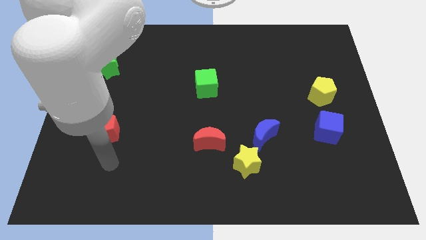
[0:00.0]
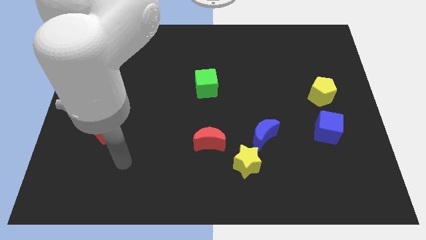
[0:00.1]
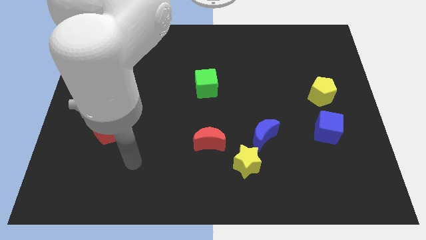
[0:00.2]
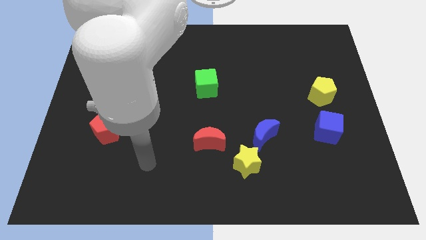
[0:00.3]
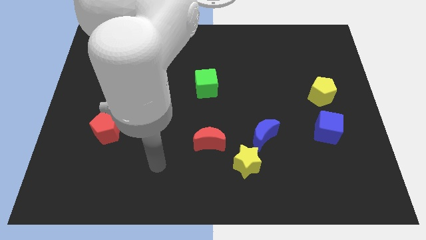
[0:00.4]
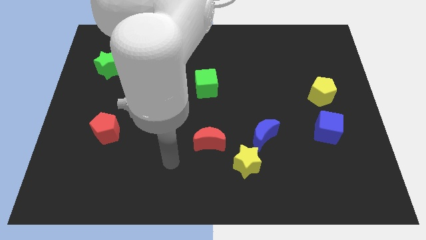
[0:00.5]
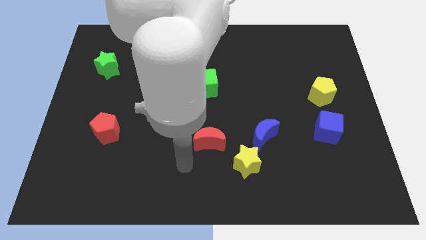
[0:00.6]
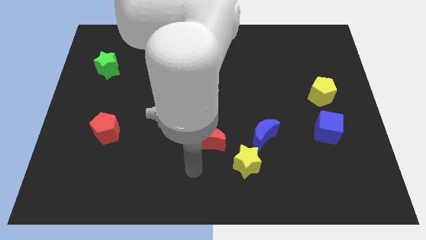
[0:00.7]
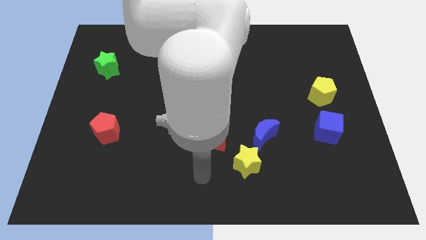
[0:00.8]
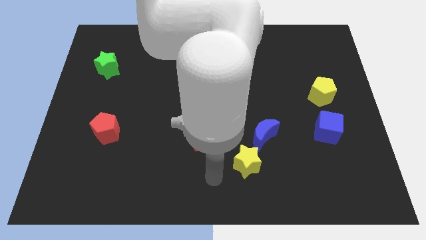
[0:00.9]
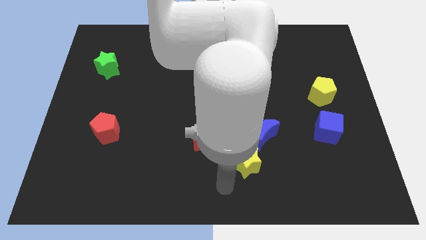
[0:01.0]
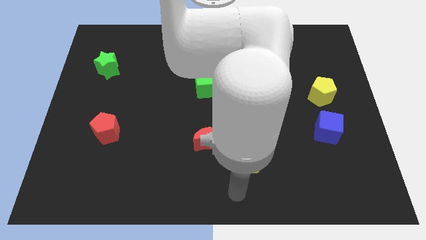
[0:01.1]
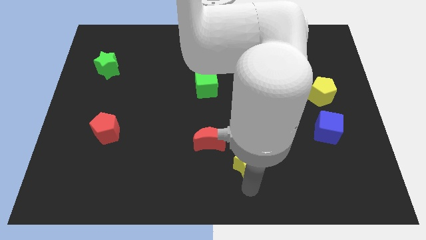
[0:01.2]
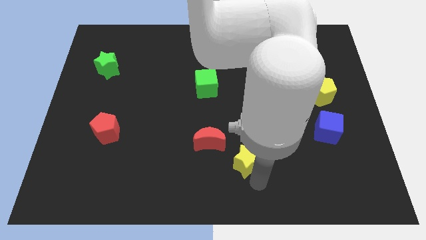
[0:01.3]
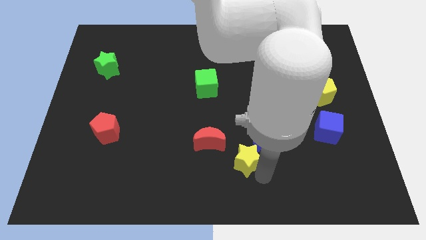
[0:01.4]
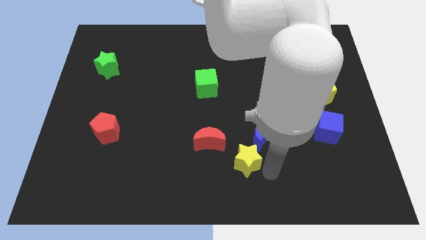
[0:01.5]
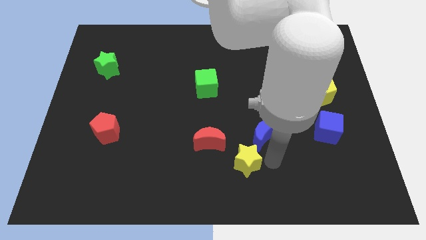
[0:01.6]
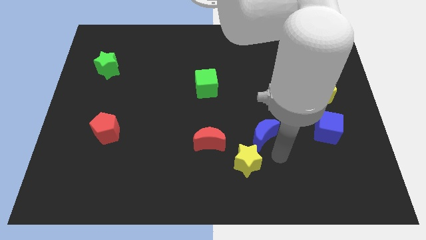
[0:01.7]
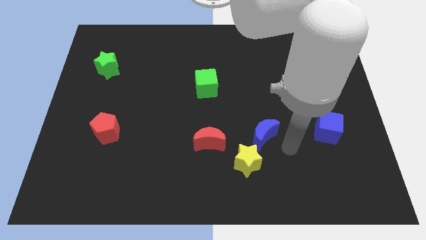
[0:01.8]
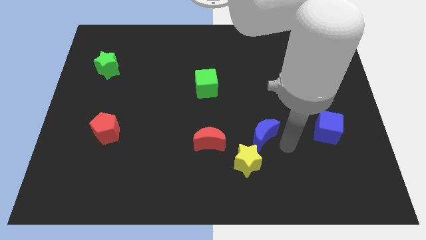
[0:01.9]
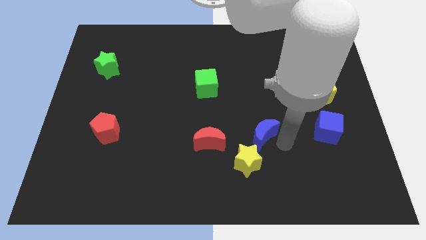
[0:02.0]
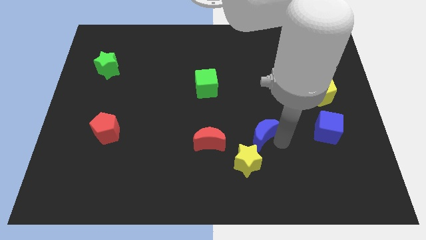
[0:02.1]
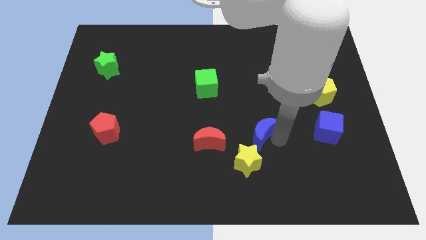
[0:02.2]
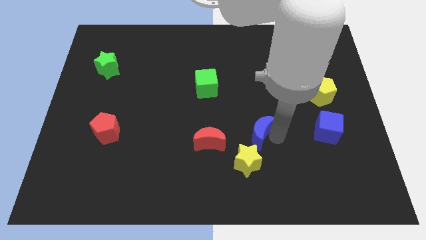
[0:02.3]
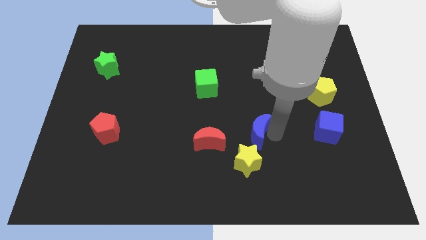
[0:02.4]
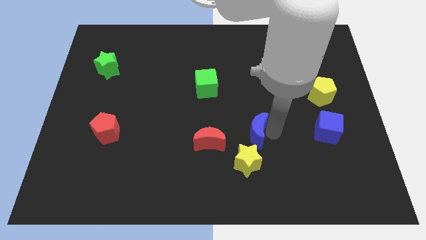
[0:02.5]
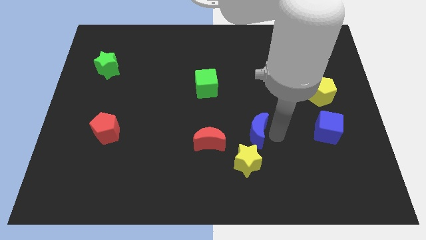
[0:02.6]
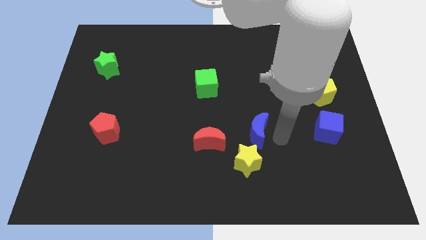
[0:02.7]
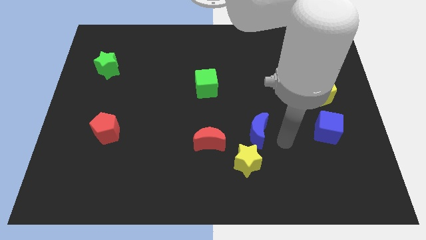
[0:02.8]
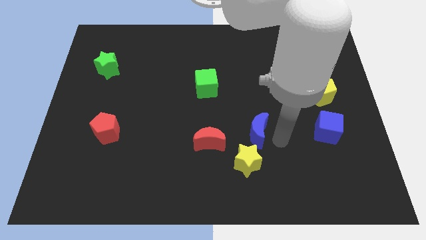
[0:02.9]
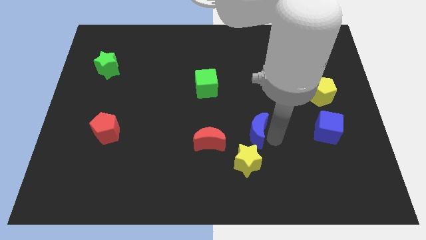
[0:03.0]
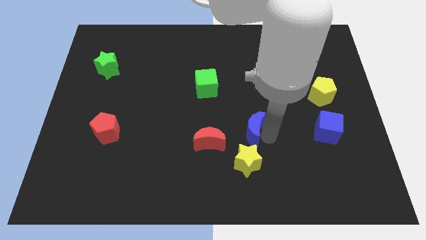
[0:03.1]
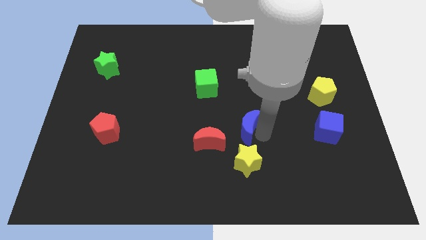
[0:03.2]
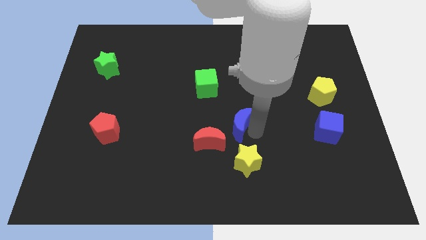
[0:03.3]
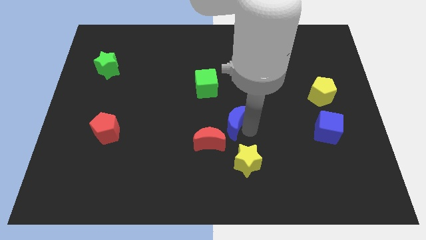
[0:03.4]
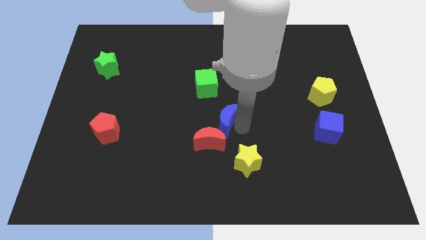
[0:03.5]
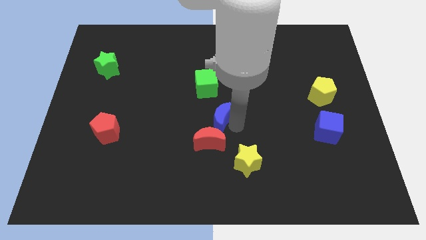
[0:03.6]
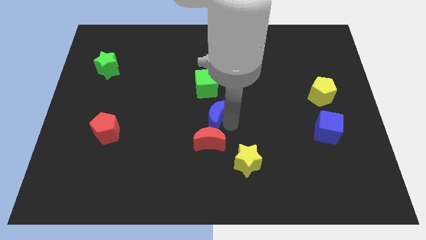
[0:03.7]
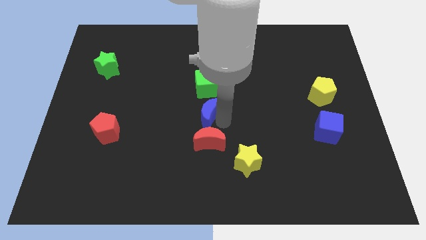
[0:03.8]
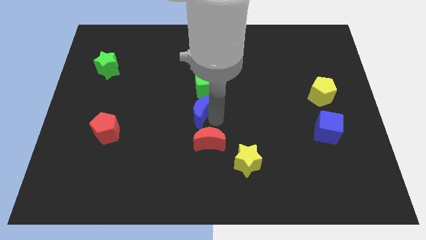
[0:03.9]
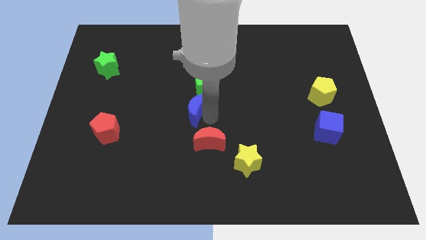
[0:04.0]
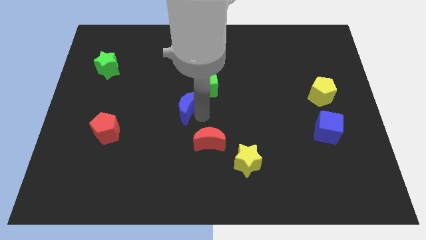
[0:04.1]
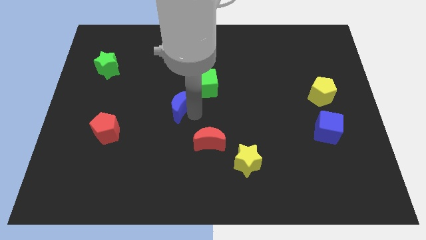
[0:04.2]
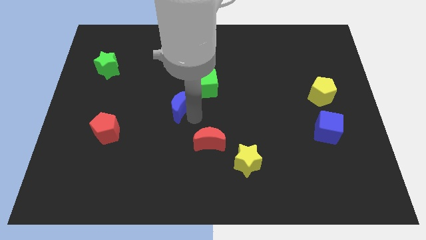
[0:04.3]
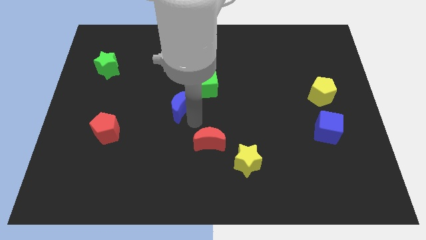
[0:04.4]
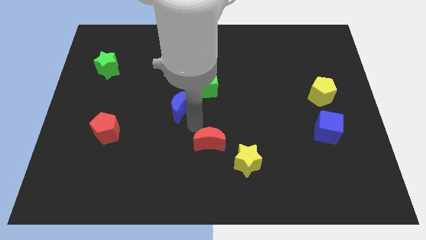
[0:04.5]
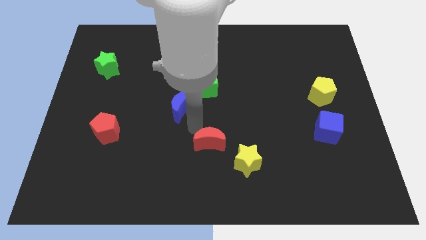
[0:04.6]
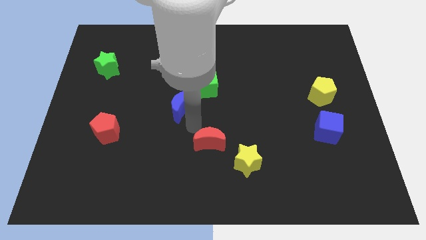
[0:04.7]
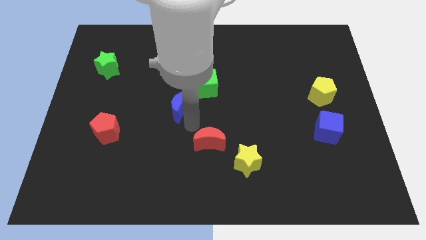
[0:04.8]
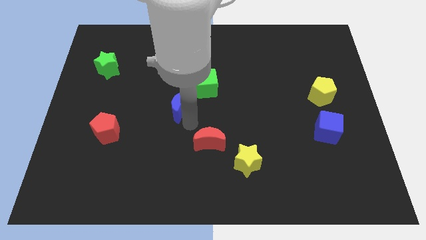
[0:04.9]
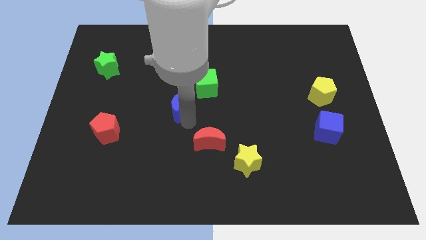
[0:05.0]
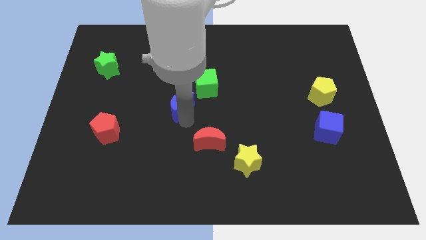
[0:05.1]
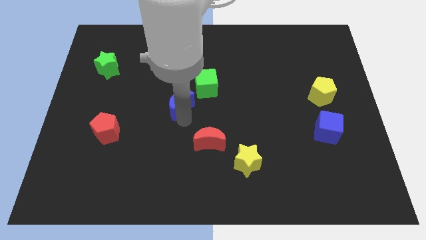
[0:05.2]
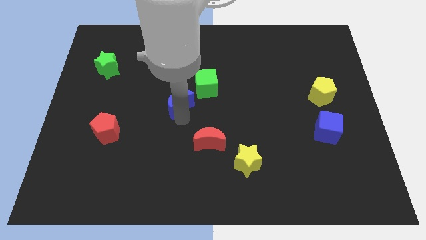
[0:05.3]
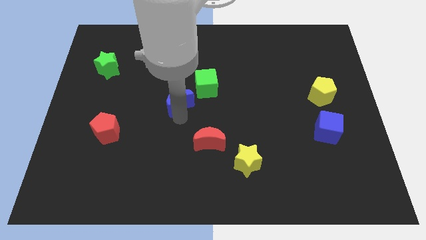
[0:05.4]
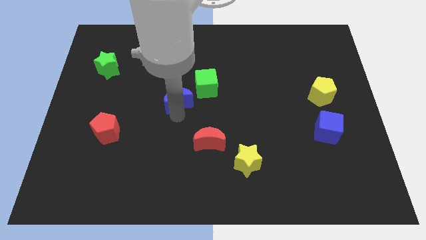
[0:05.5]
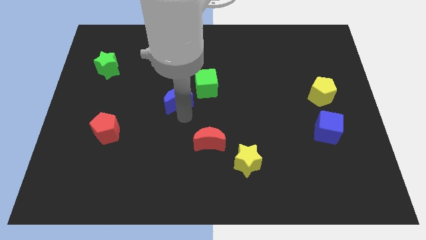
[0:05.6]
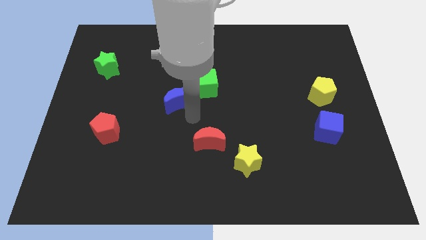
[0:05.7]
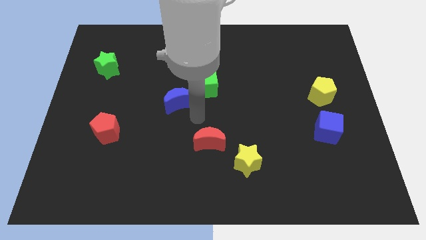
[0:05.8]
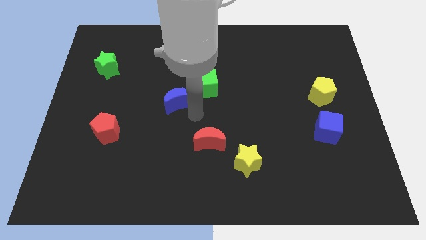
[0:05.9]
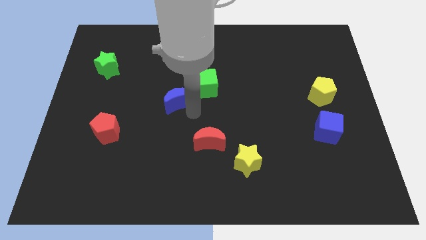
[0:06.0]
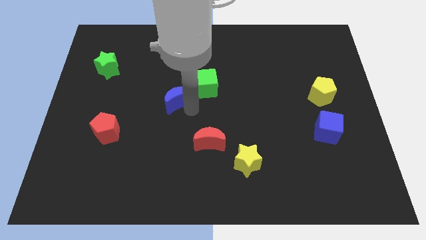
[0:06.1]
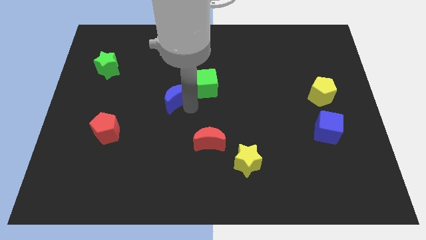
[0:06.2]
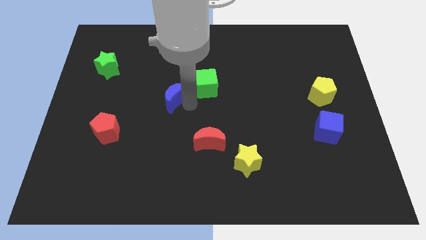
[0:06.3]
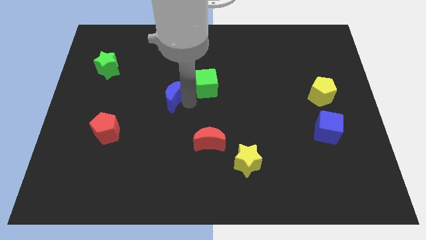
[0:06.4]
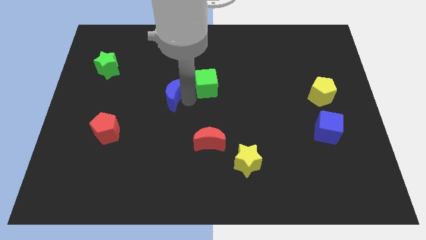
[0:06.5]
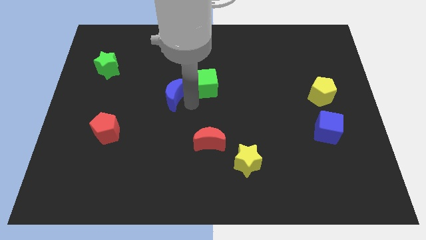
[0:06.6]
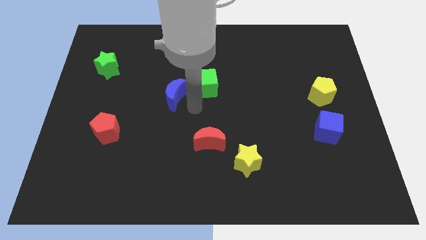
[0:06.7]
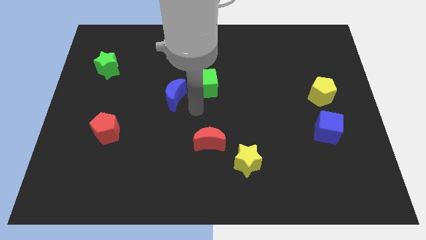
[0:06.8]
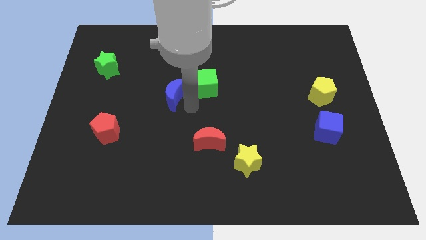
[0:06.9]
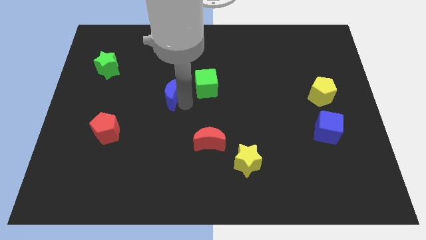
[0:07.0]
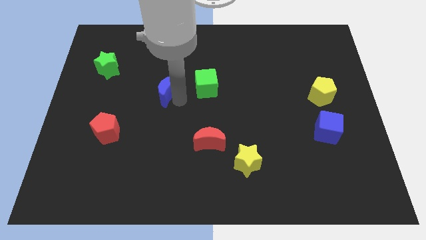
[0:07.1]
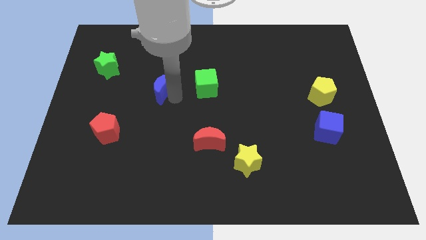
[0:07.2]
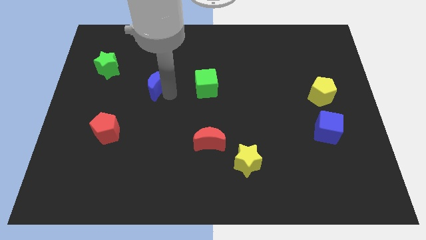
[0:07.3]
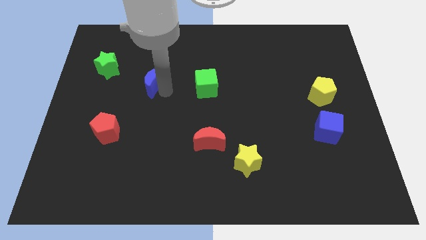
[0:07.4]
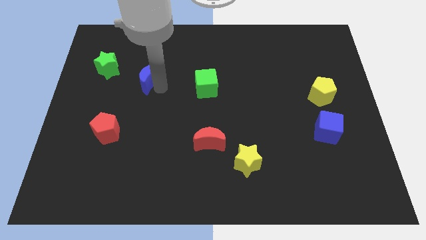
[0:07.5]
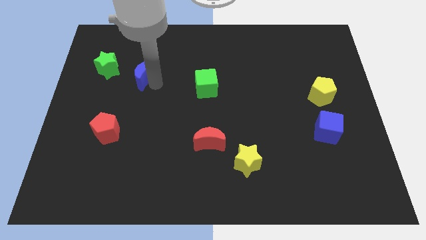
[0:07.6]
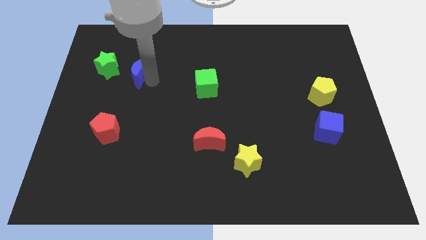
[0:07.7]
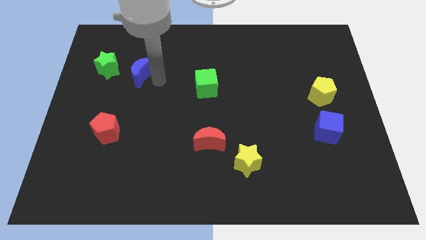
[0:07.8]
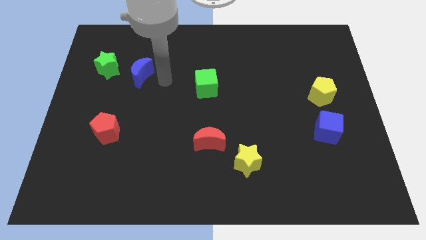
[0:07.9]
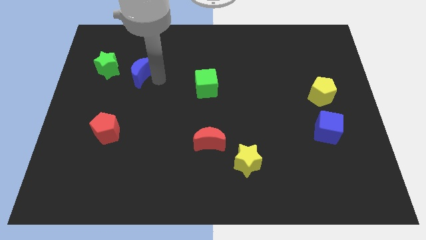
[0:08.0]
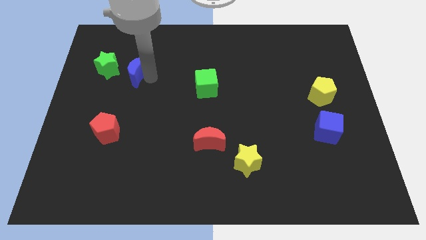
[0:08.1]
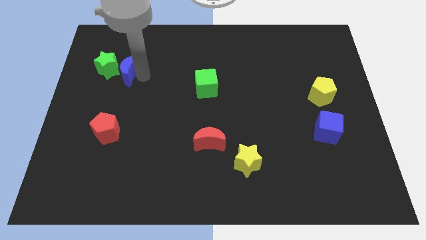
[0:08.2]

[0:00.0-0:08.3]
slide the blue moon to the green star
